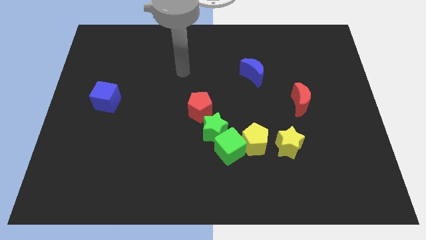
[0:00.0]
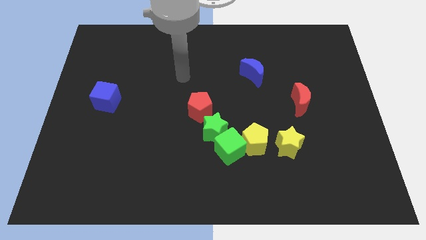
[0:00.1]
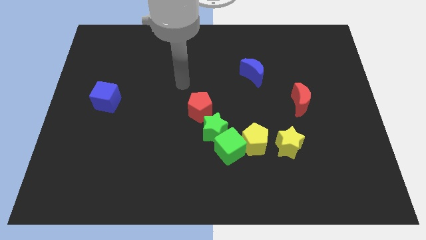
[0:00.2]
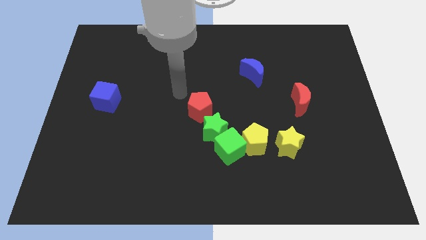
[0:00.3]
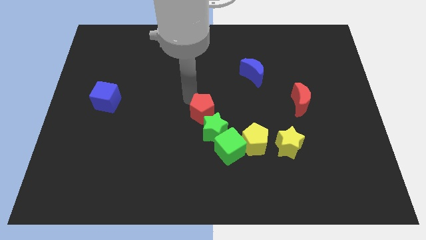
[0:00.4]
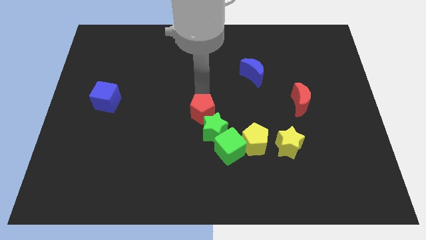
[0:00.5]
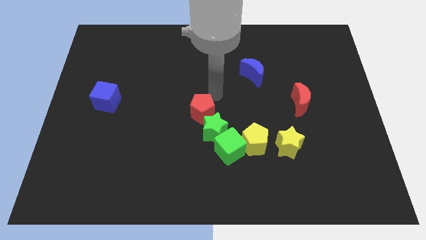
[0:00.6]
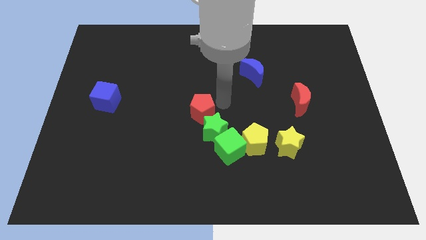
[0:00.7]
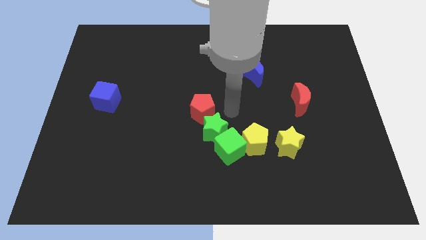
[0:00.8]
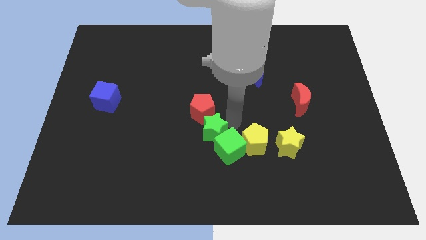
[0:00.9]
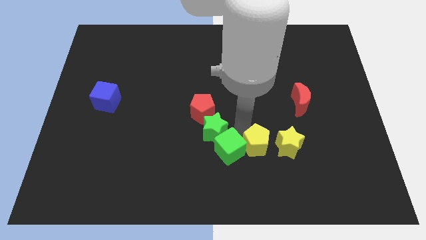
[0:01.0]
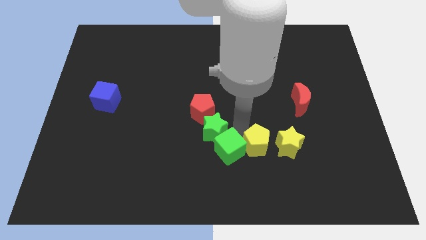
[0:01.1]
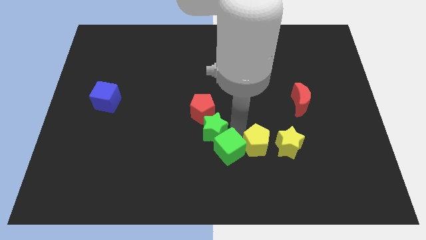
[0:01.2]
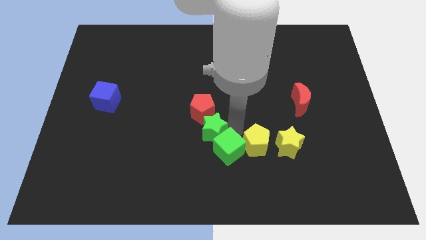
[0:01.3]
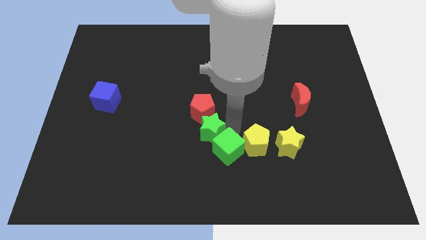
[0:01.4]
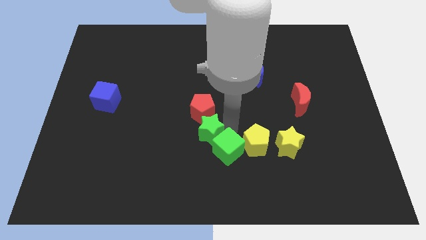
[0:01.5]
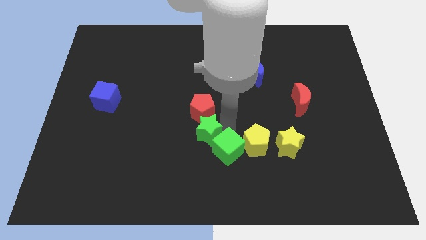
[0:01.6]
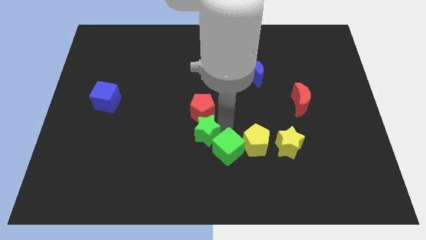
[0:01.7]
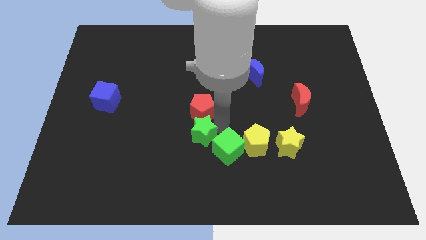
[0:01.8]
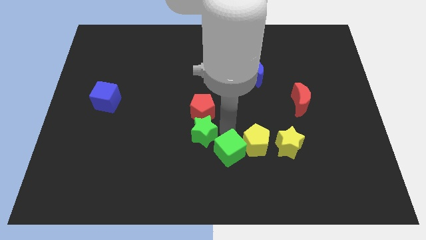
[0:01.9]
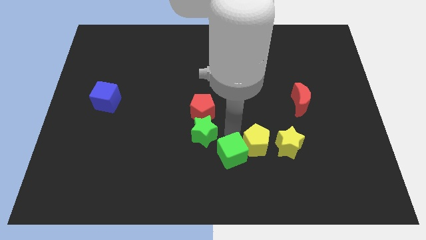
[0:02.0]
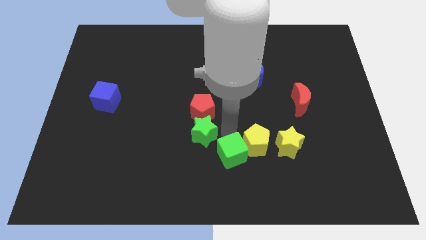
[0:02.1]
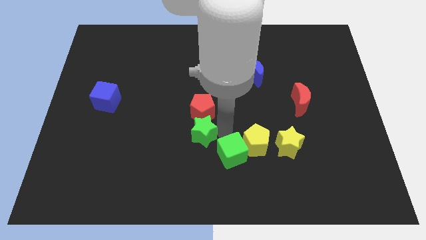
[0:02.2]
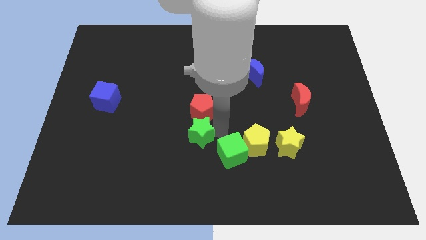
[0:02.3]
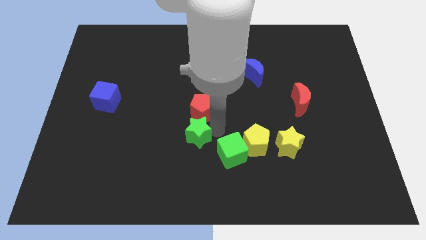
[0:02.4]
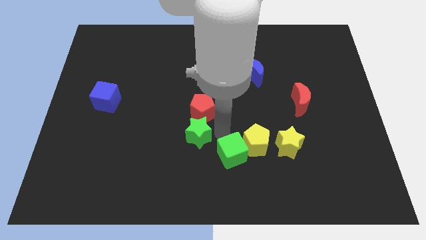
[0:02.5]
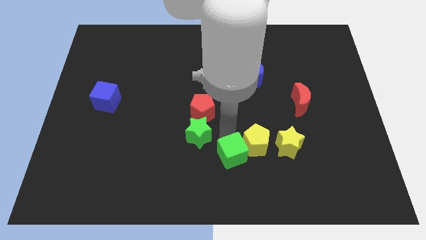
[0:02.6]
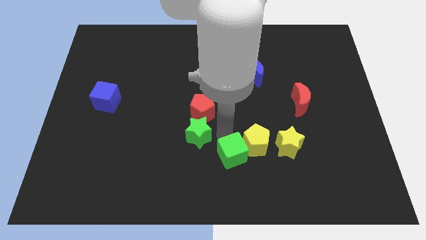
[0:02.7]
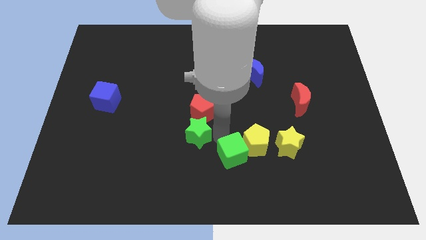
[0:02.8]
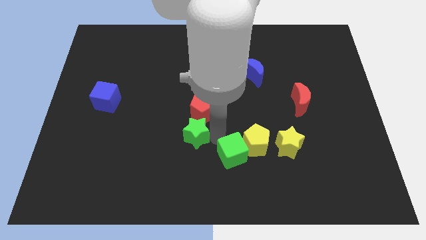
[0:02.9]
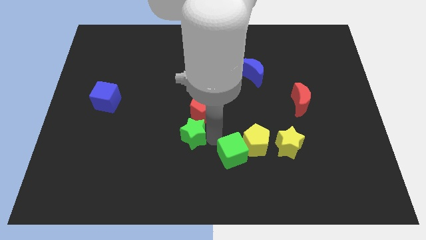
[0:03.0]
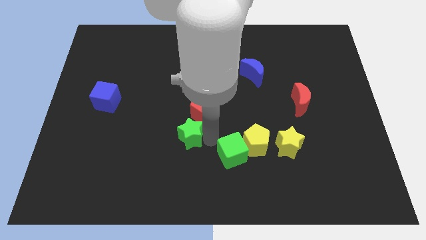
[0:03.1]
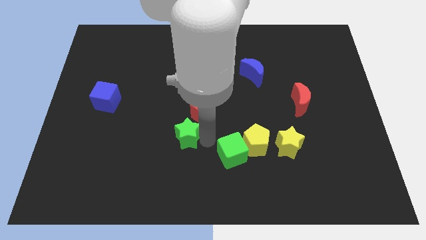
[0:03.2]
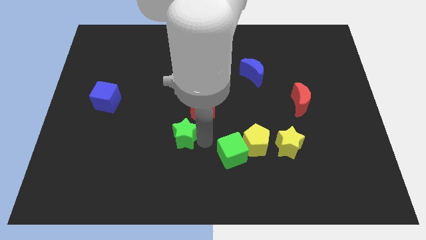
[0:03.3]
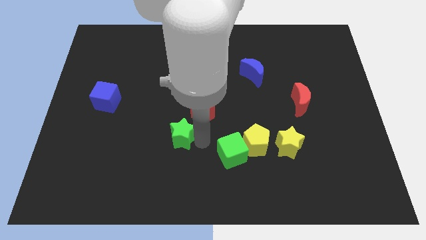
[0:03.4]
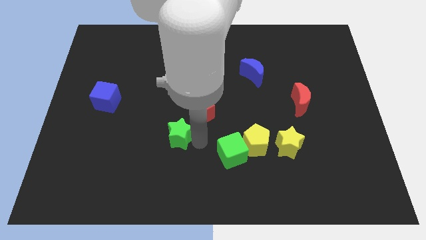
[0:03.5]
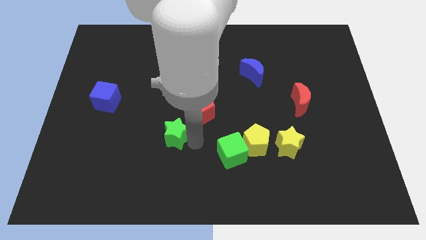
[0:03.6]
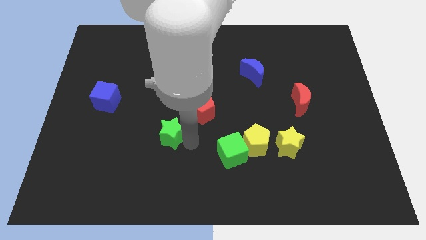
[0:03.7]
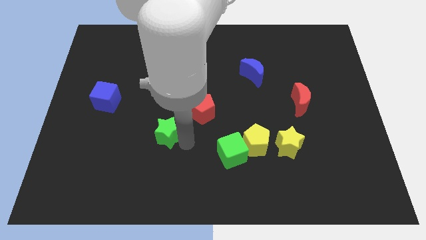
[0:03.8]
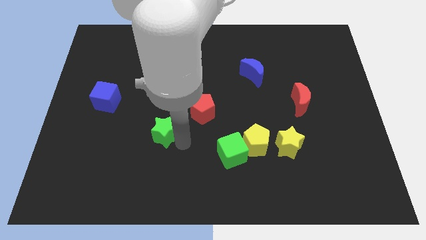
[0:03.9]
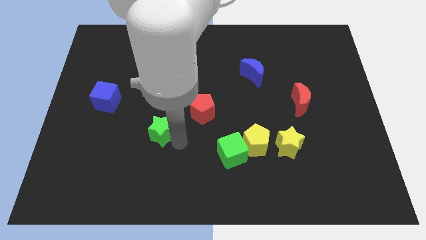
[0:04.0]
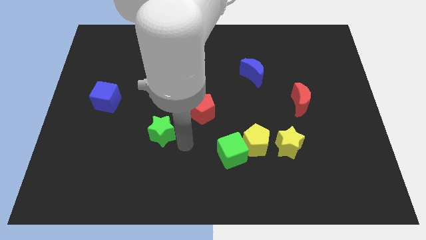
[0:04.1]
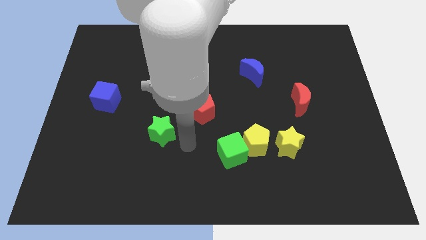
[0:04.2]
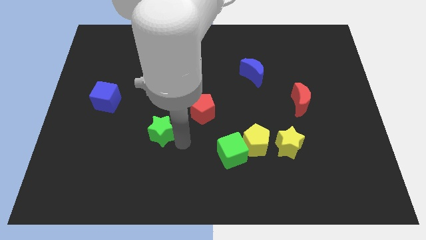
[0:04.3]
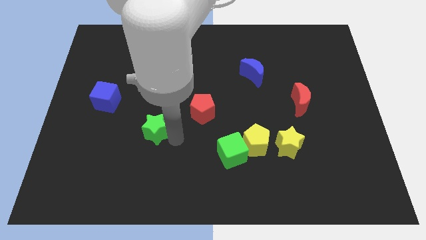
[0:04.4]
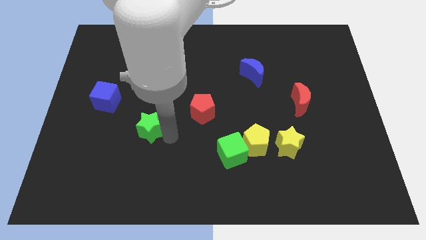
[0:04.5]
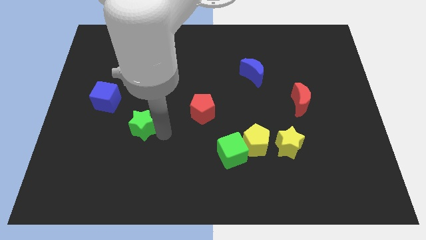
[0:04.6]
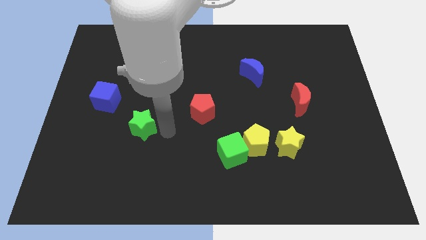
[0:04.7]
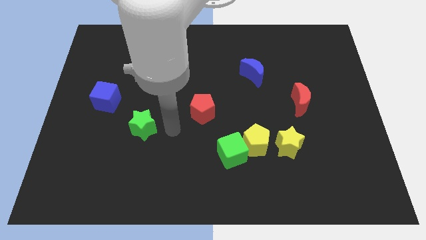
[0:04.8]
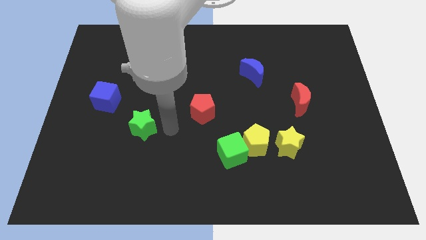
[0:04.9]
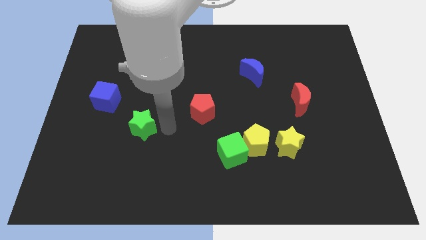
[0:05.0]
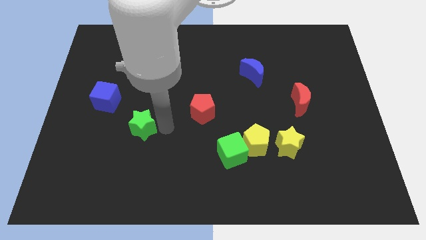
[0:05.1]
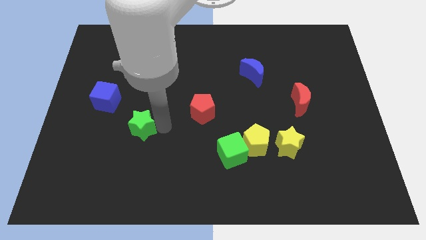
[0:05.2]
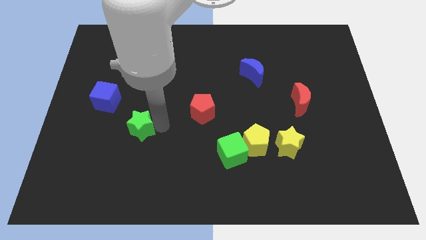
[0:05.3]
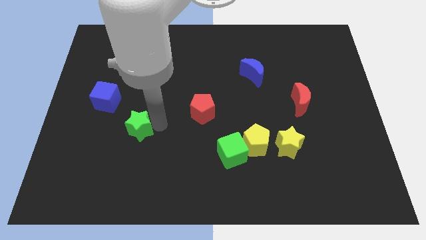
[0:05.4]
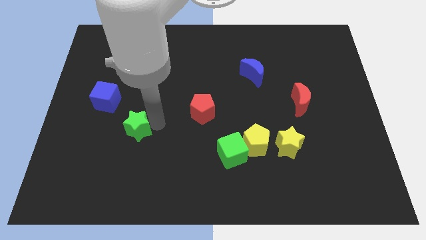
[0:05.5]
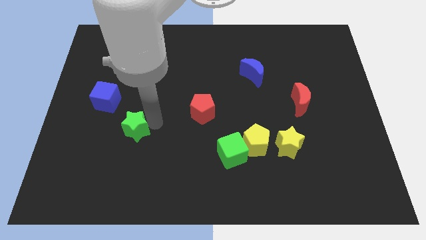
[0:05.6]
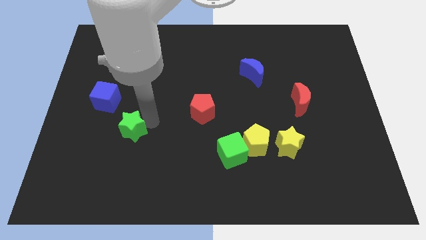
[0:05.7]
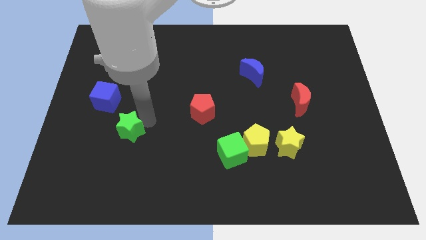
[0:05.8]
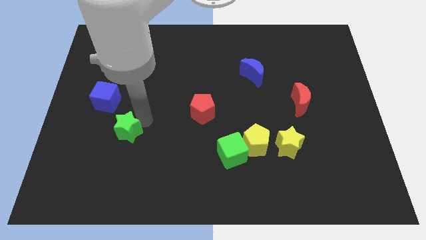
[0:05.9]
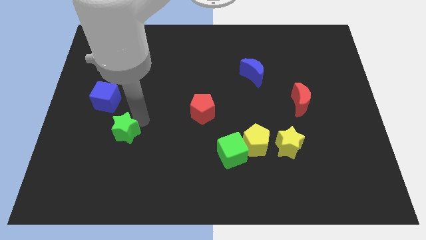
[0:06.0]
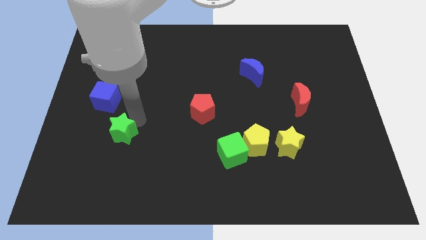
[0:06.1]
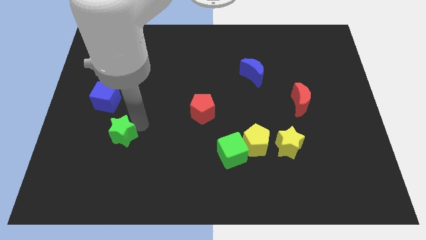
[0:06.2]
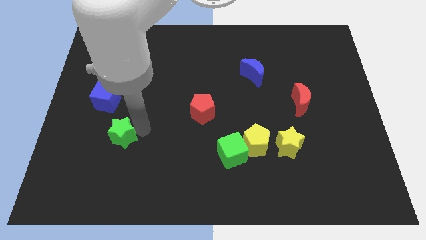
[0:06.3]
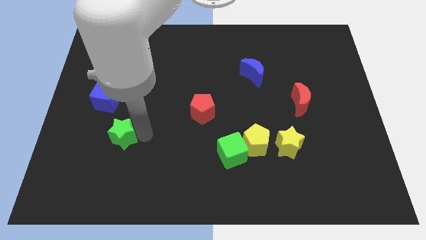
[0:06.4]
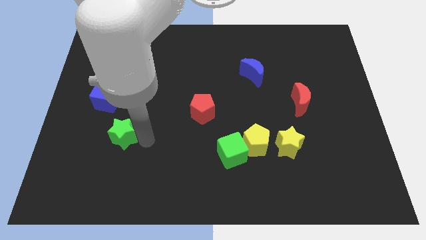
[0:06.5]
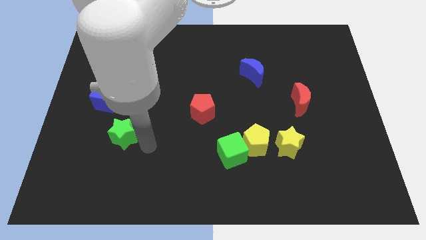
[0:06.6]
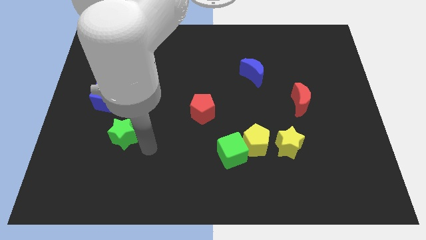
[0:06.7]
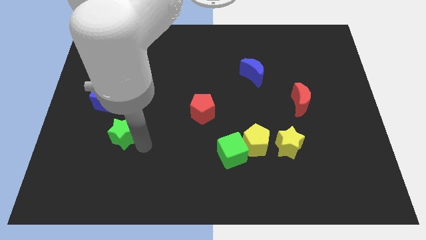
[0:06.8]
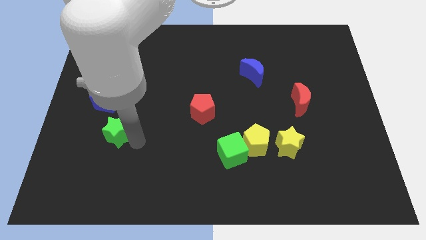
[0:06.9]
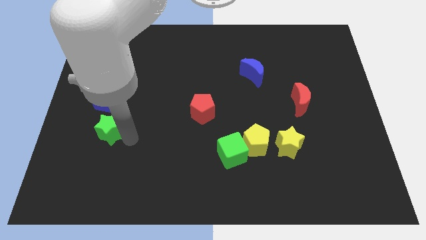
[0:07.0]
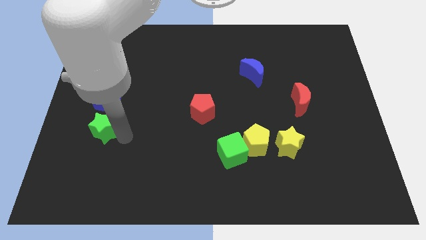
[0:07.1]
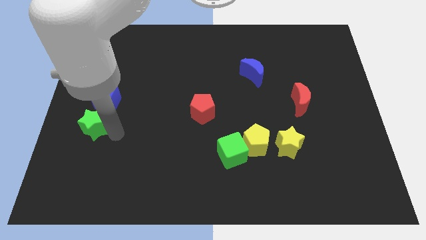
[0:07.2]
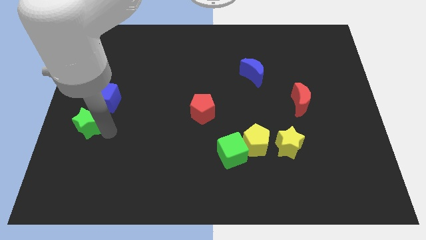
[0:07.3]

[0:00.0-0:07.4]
move the green star to the center left
